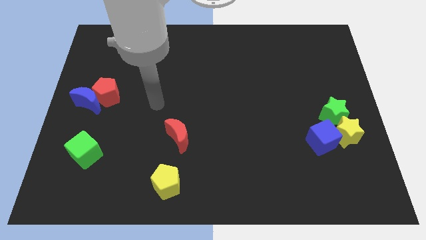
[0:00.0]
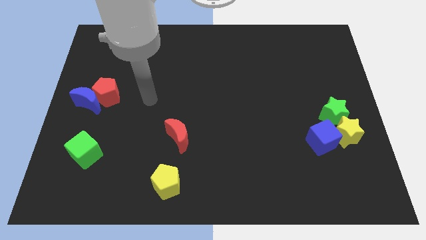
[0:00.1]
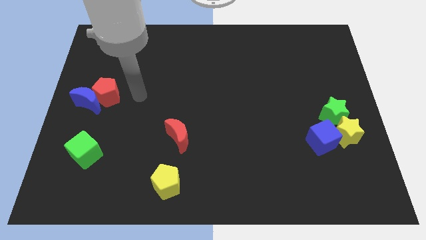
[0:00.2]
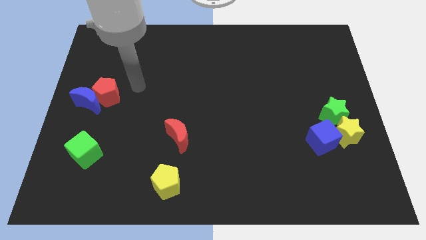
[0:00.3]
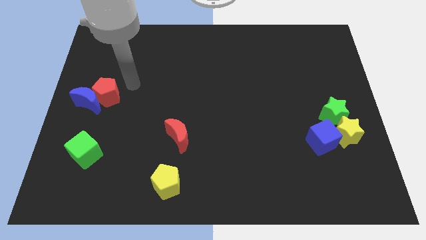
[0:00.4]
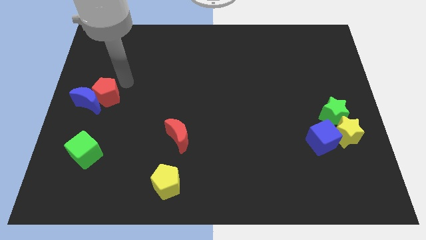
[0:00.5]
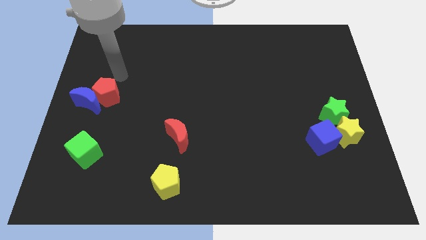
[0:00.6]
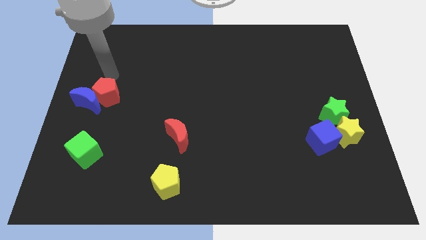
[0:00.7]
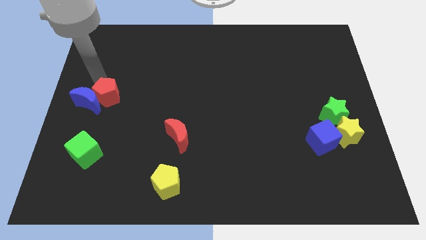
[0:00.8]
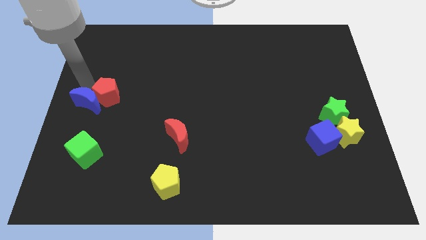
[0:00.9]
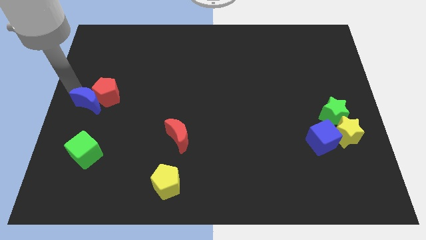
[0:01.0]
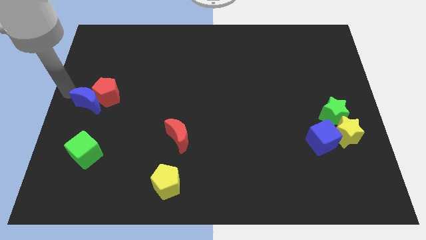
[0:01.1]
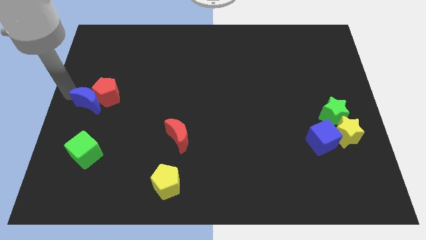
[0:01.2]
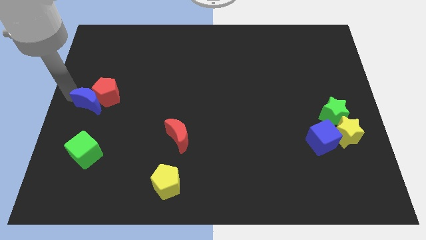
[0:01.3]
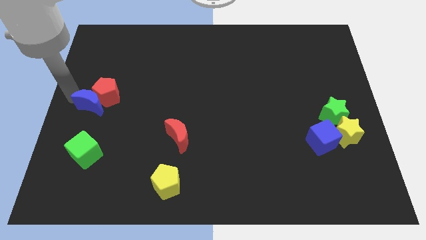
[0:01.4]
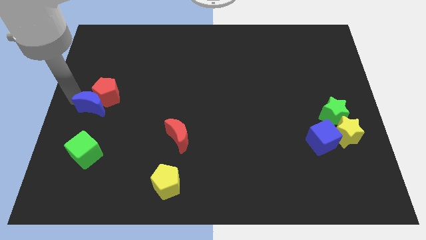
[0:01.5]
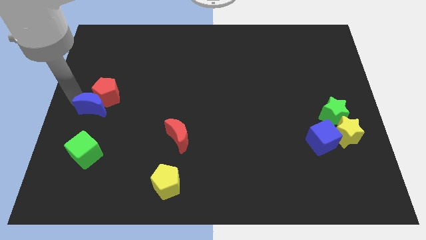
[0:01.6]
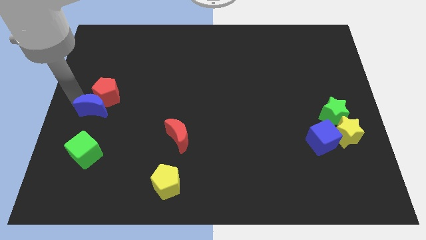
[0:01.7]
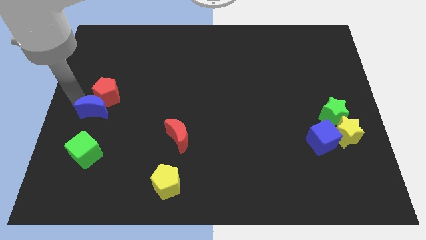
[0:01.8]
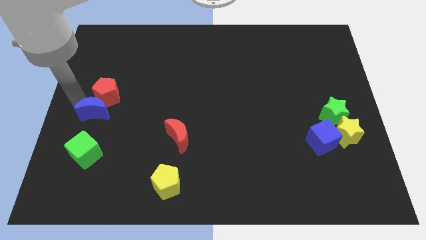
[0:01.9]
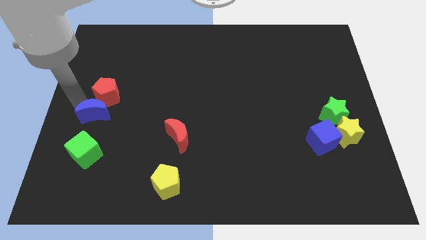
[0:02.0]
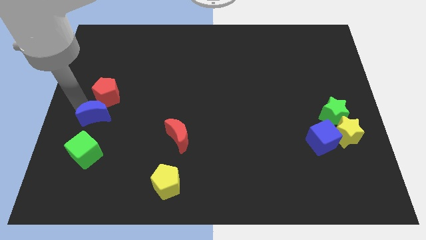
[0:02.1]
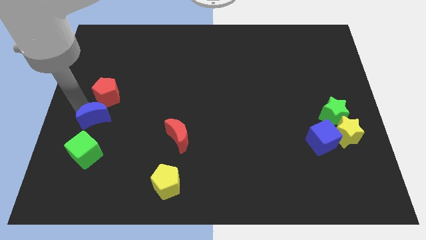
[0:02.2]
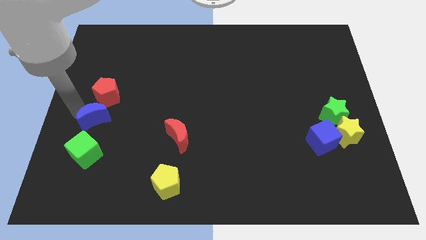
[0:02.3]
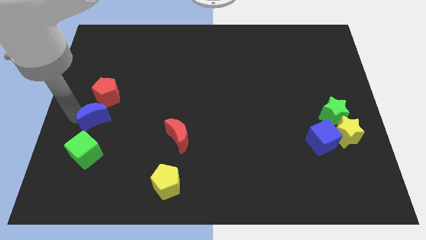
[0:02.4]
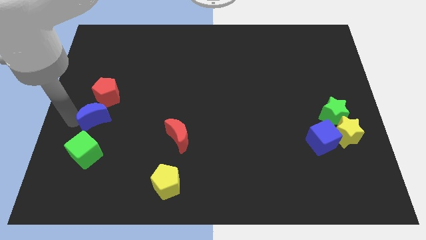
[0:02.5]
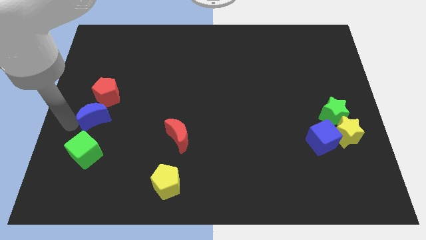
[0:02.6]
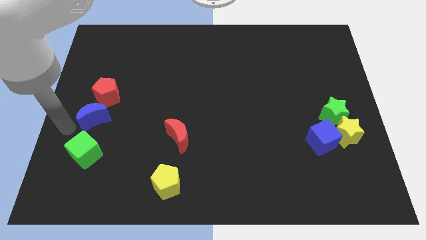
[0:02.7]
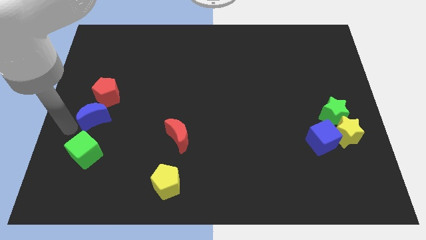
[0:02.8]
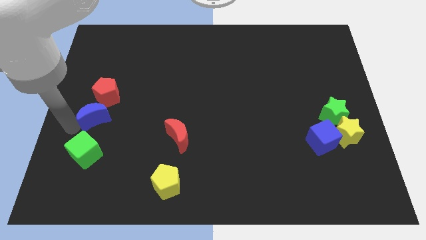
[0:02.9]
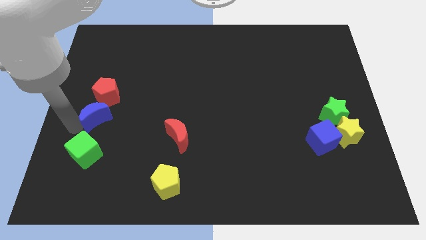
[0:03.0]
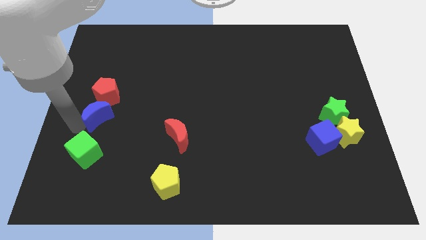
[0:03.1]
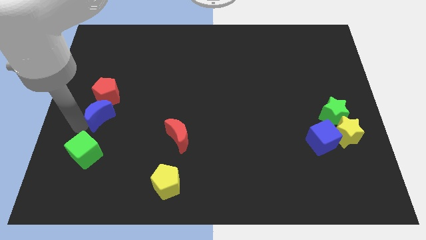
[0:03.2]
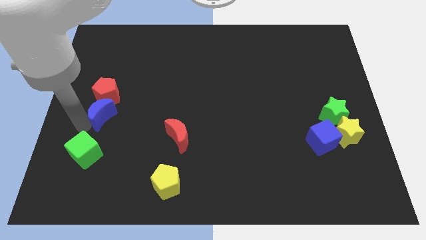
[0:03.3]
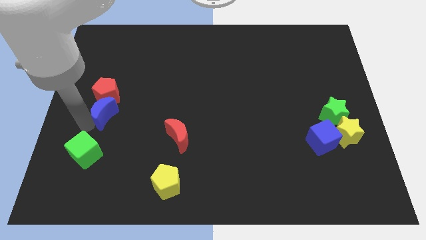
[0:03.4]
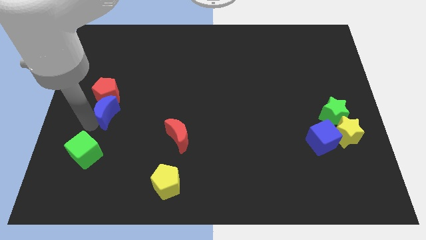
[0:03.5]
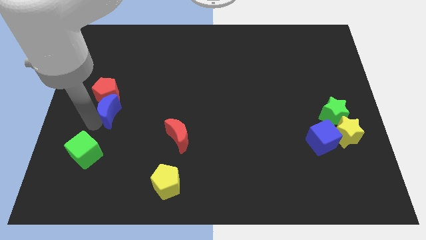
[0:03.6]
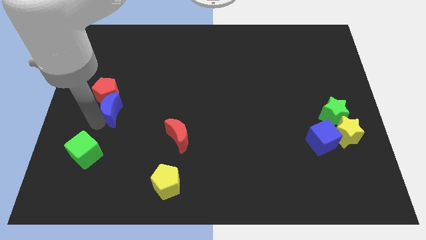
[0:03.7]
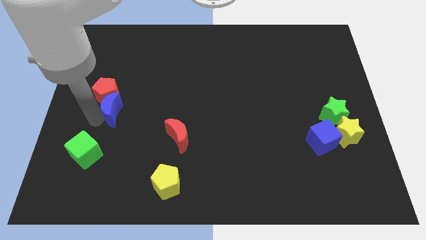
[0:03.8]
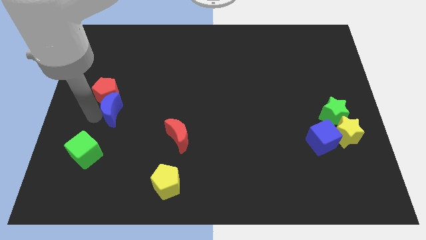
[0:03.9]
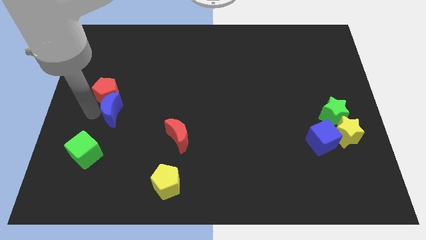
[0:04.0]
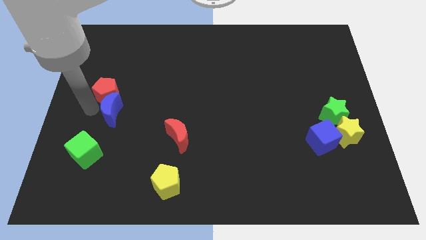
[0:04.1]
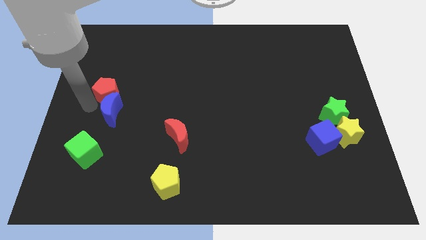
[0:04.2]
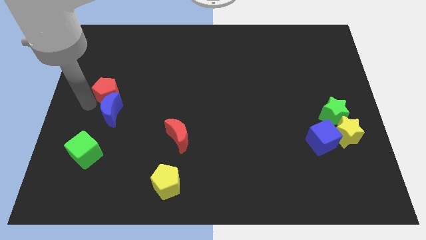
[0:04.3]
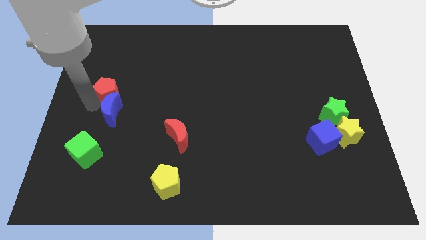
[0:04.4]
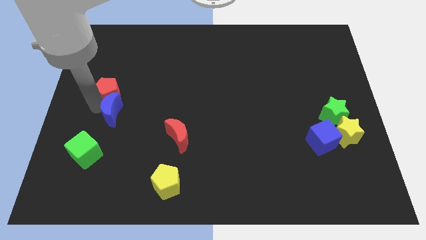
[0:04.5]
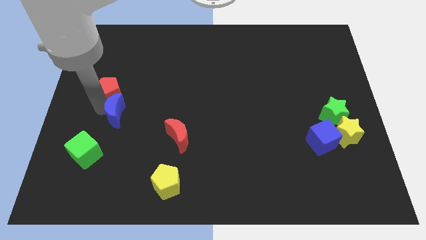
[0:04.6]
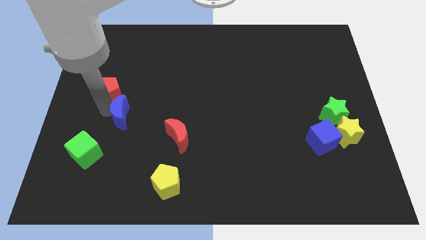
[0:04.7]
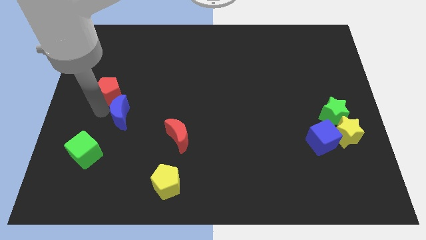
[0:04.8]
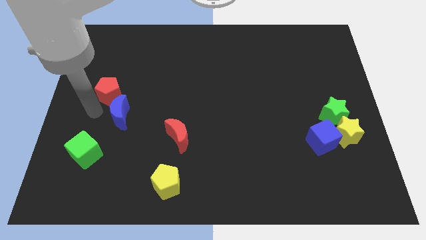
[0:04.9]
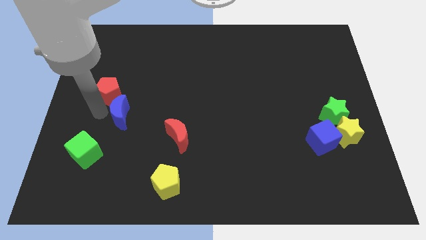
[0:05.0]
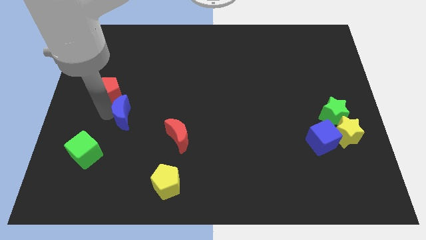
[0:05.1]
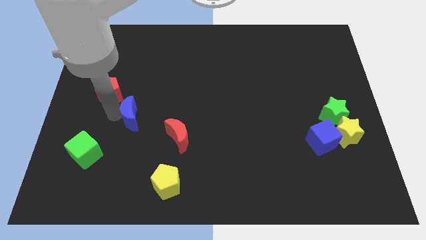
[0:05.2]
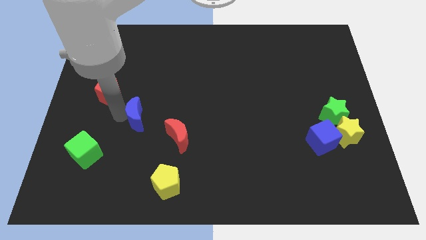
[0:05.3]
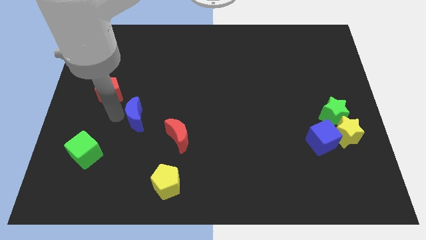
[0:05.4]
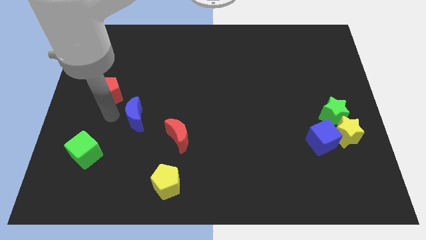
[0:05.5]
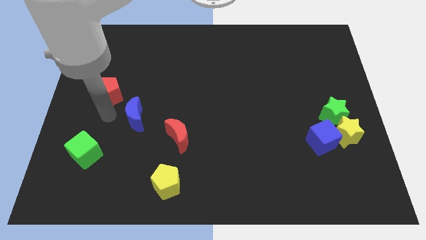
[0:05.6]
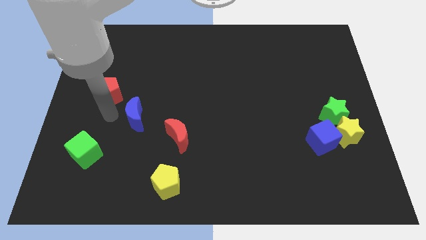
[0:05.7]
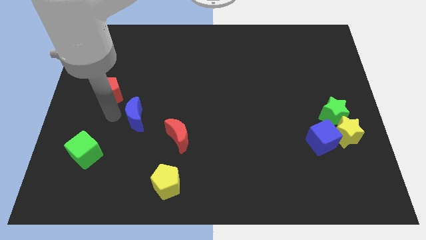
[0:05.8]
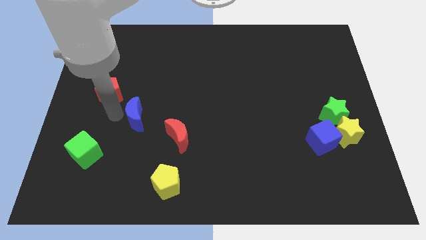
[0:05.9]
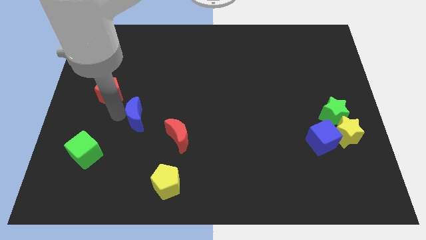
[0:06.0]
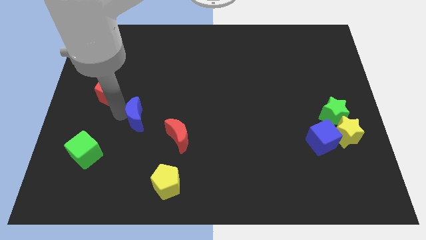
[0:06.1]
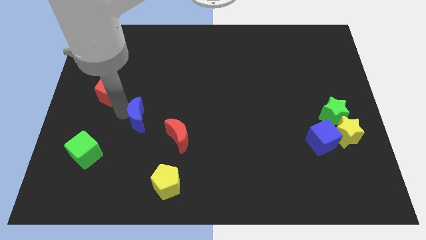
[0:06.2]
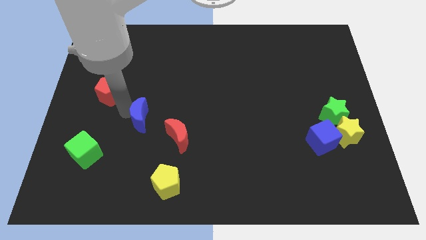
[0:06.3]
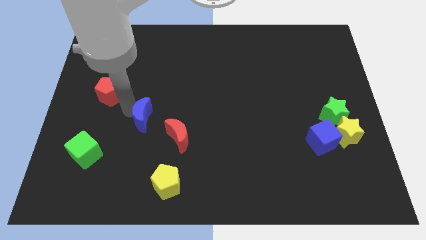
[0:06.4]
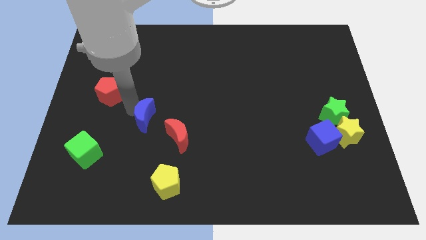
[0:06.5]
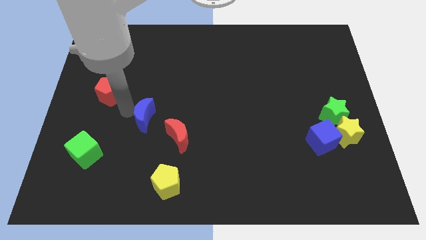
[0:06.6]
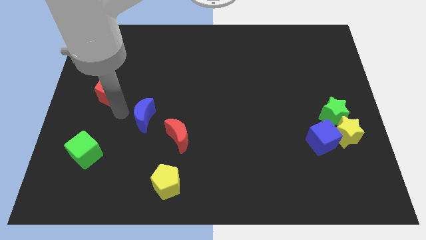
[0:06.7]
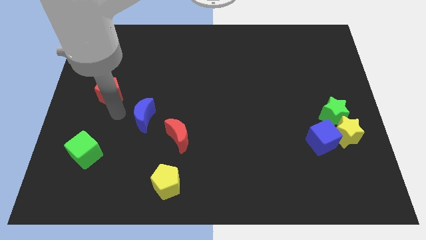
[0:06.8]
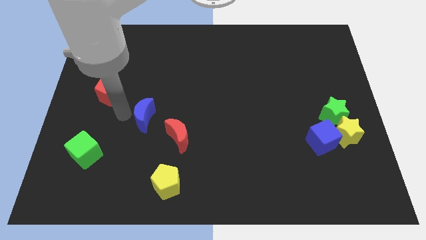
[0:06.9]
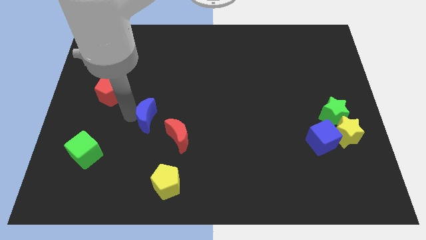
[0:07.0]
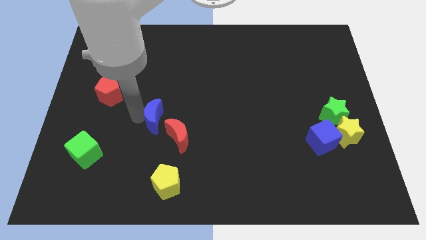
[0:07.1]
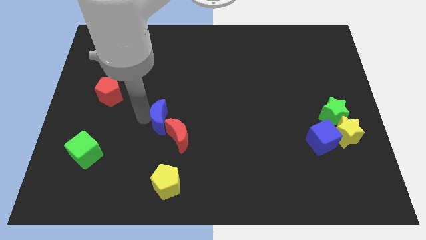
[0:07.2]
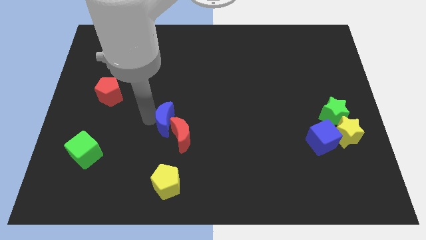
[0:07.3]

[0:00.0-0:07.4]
slide the blue moon above the yellow pentagon
